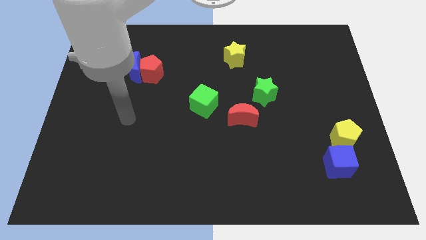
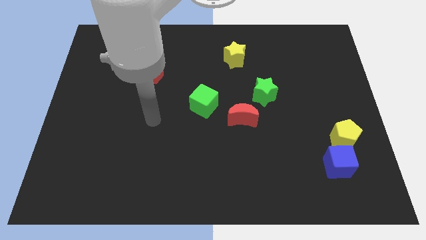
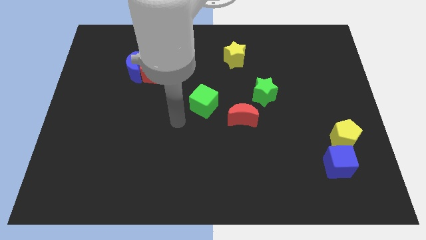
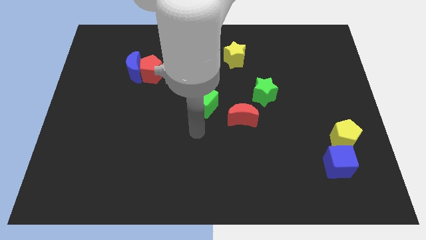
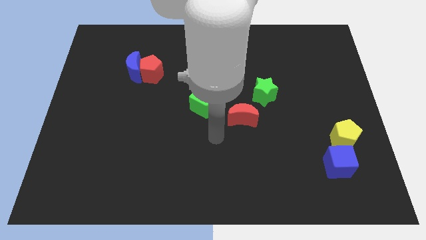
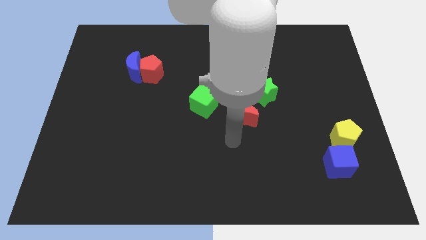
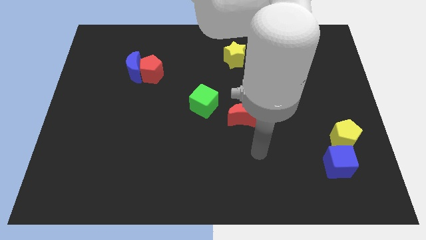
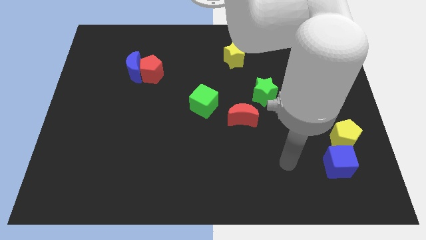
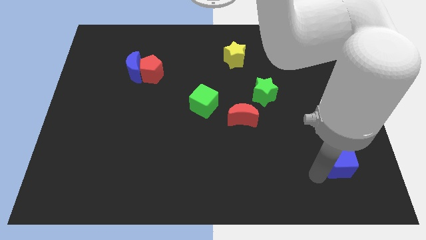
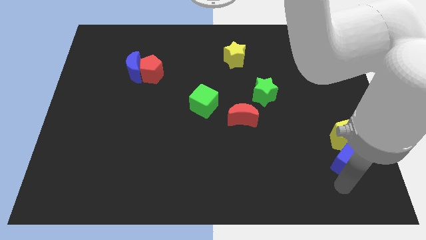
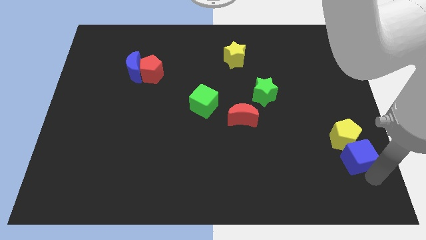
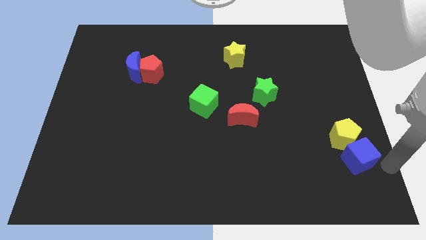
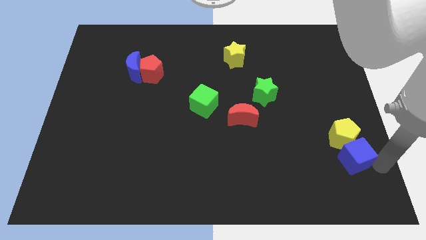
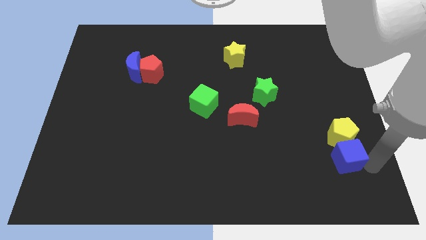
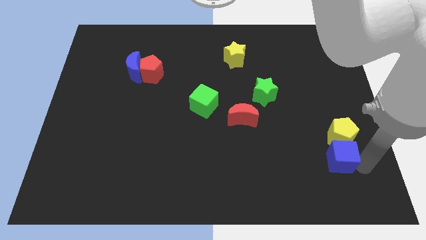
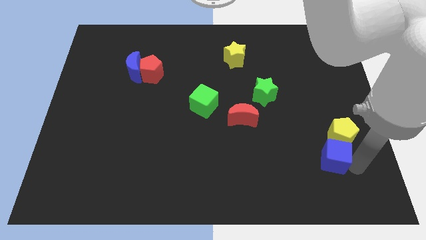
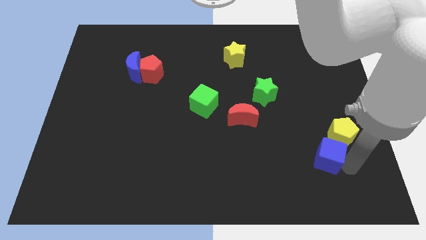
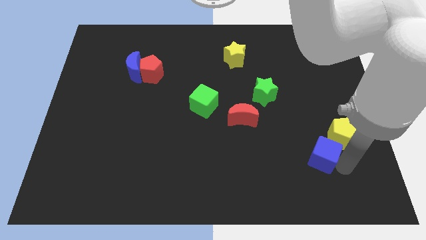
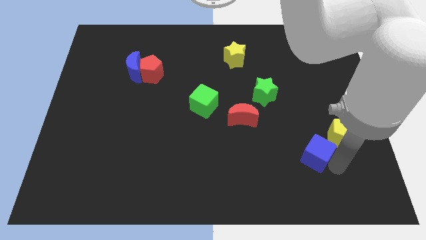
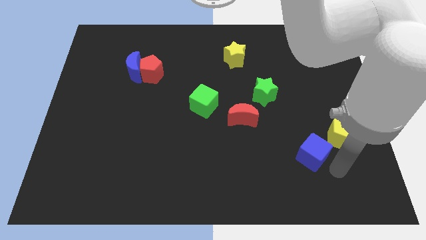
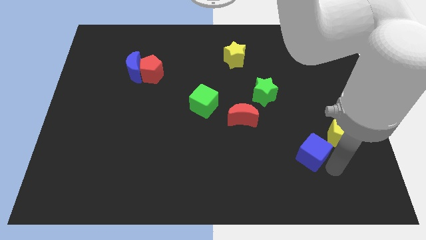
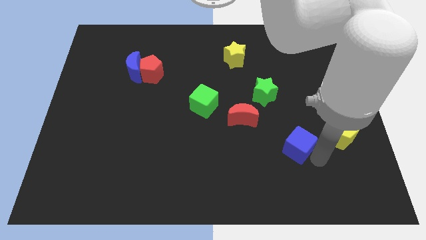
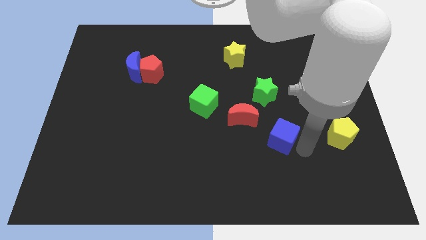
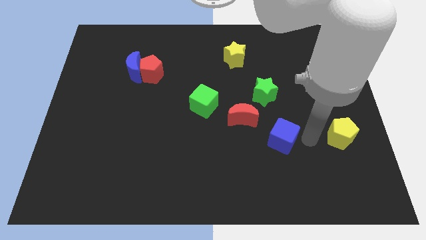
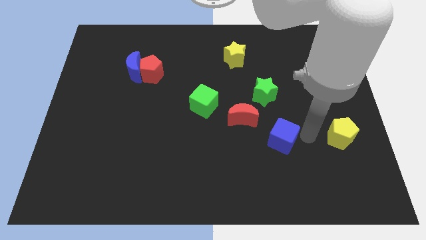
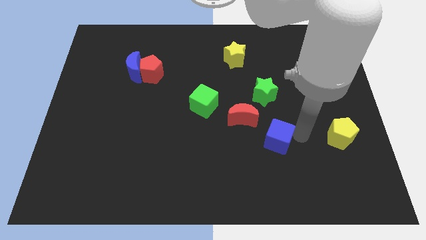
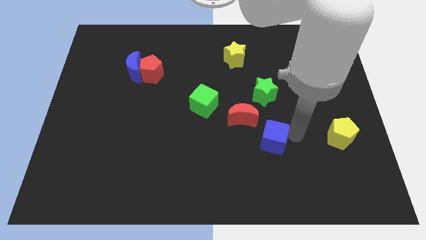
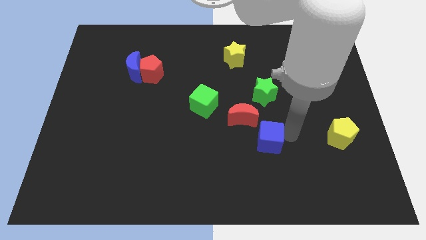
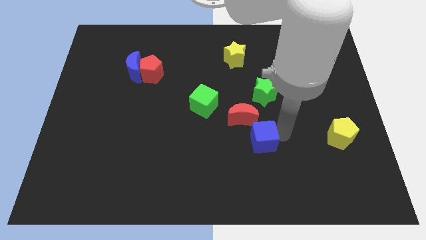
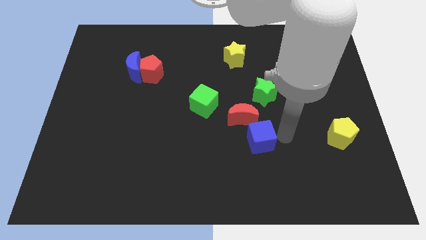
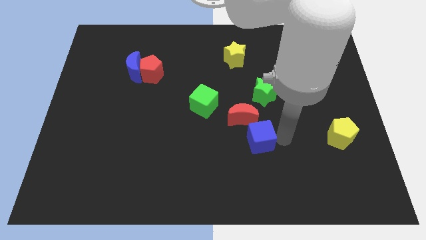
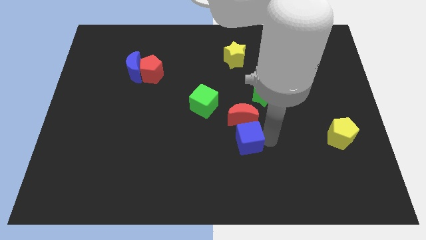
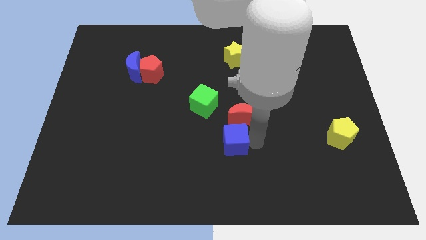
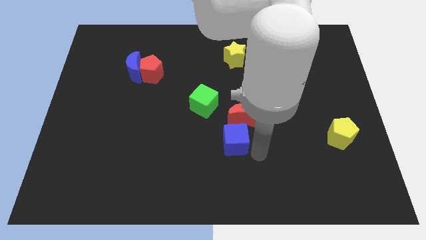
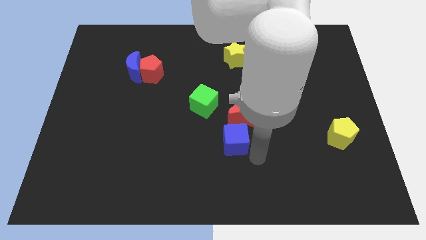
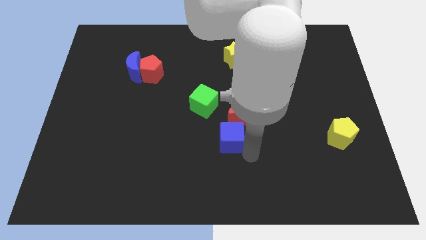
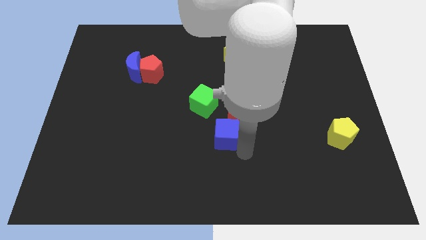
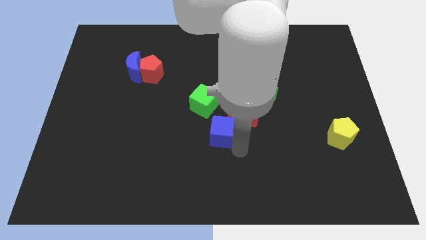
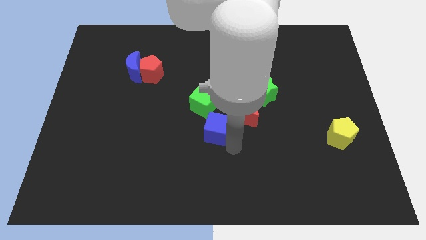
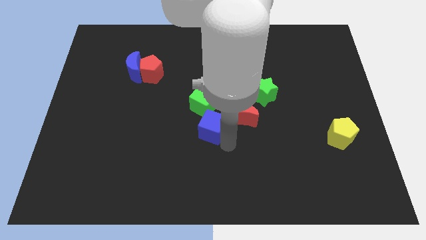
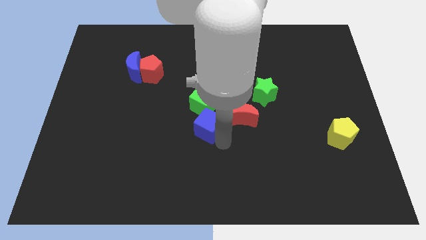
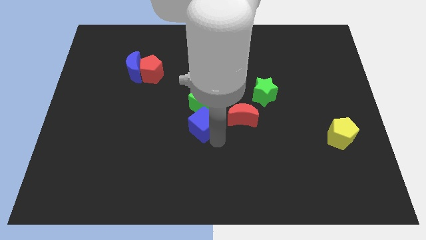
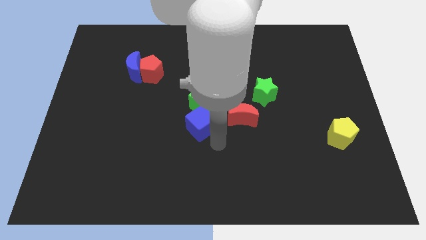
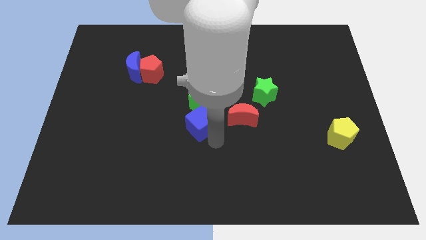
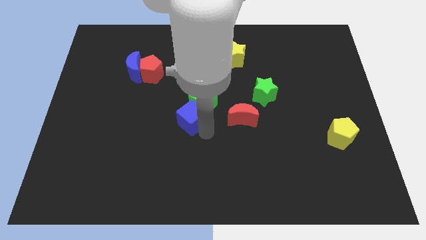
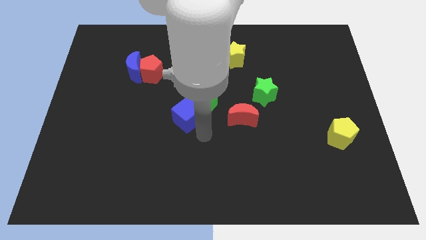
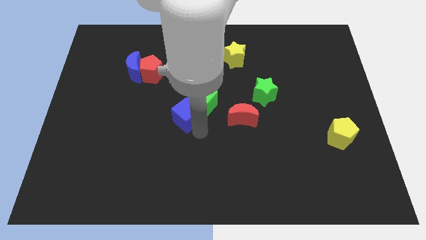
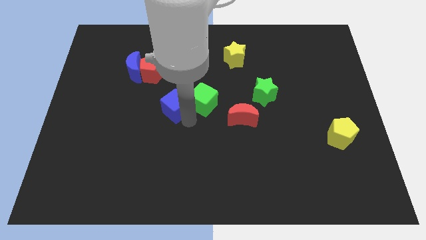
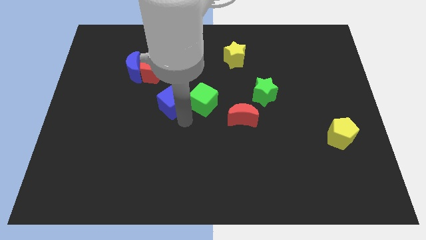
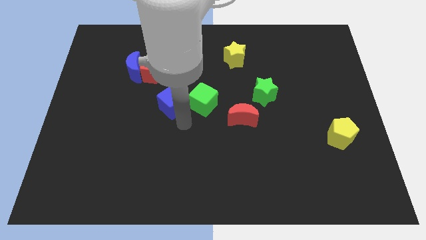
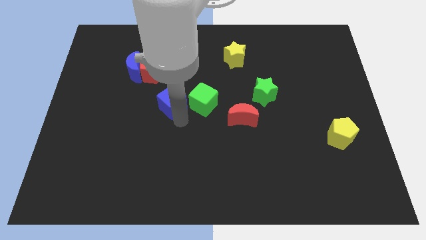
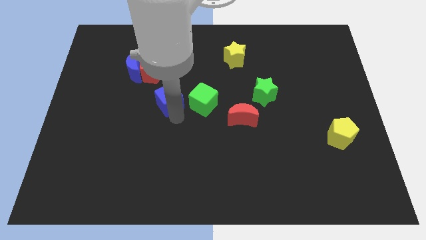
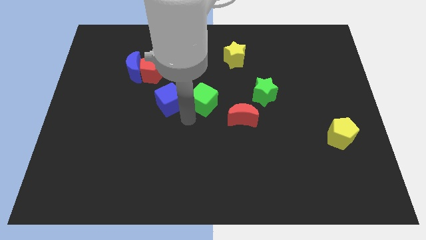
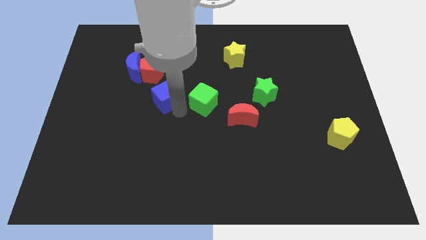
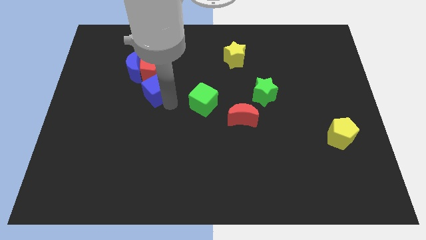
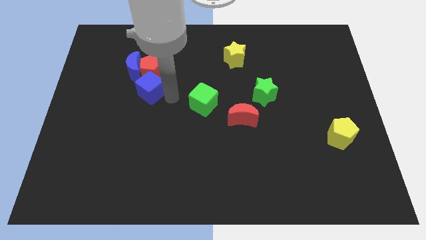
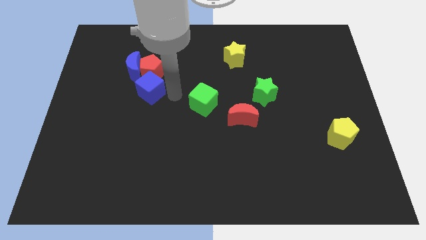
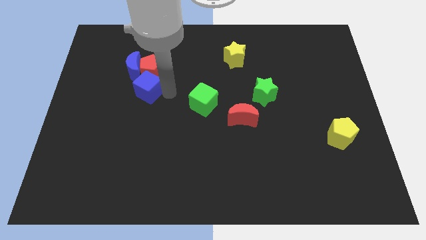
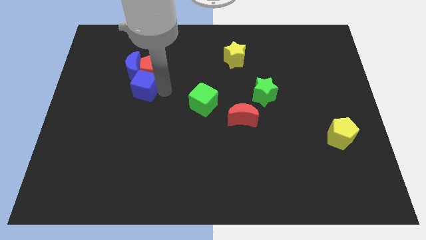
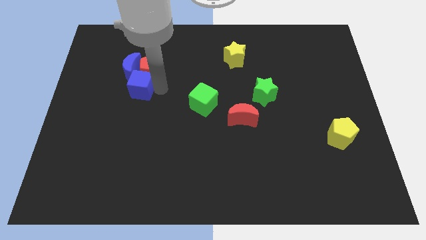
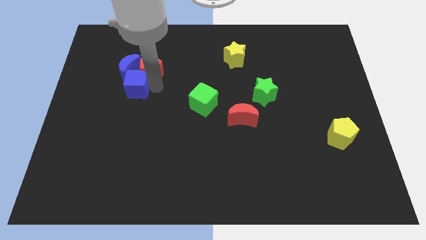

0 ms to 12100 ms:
move the blue cube towards the blue moon
